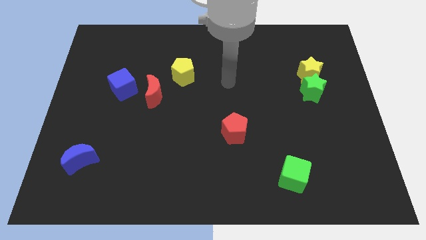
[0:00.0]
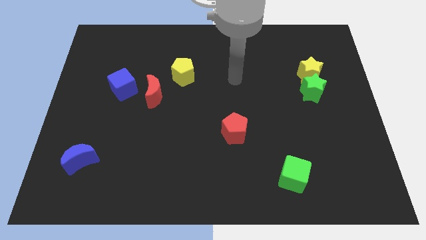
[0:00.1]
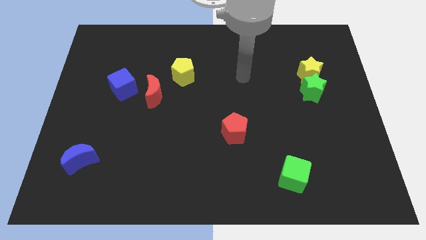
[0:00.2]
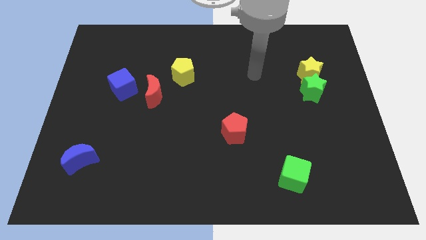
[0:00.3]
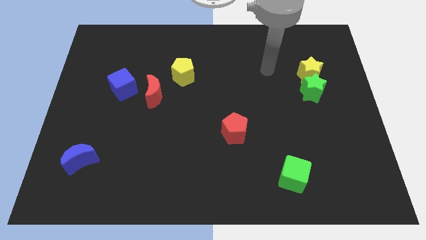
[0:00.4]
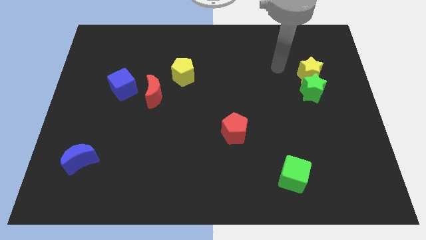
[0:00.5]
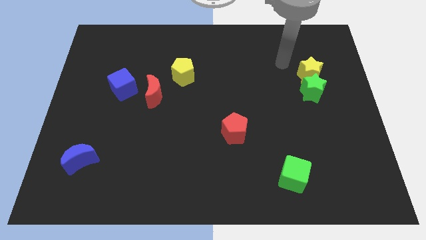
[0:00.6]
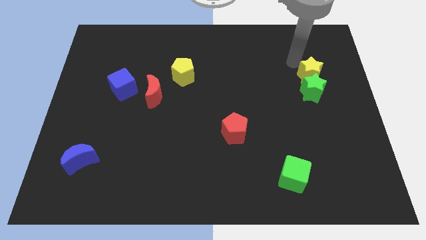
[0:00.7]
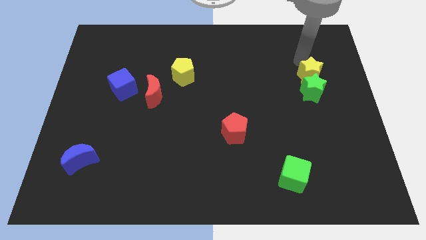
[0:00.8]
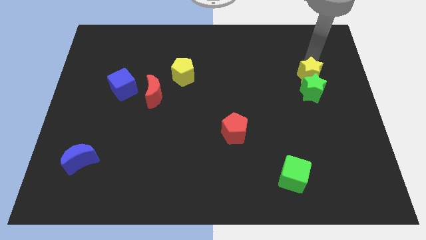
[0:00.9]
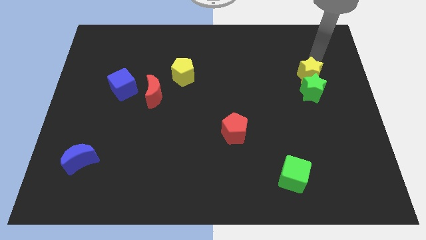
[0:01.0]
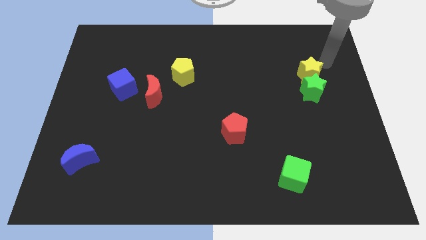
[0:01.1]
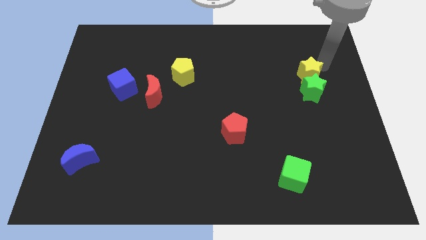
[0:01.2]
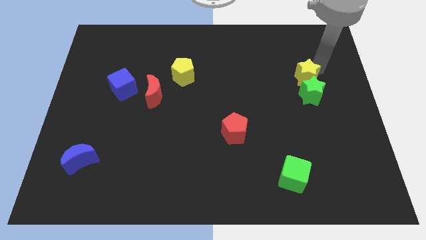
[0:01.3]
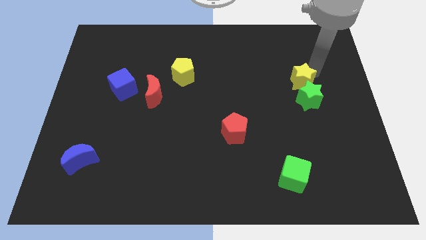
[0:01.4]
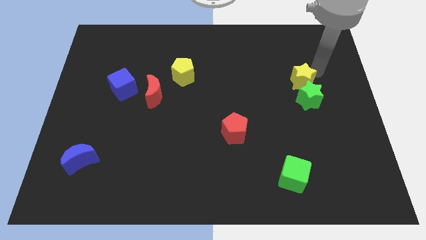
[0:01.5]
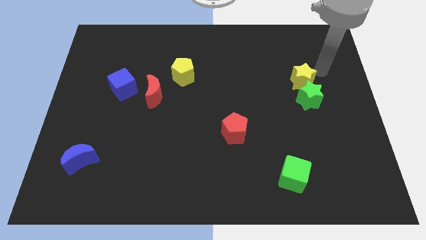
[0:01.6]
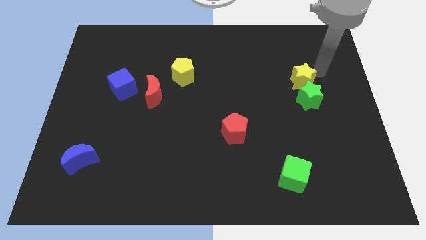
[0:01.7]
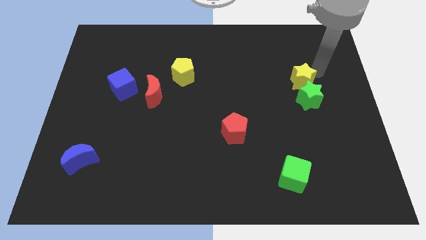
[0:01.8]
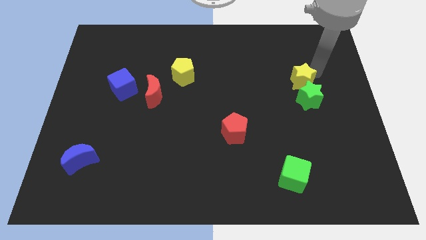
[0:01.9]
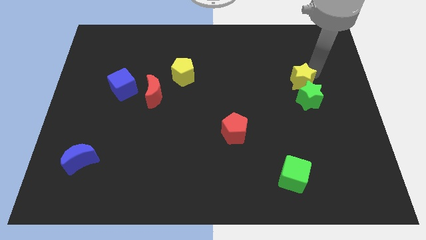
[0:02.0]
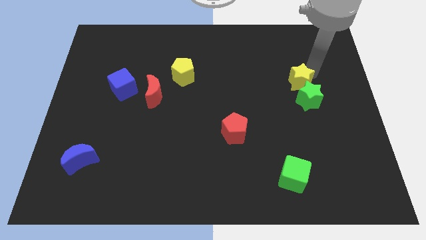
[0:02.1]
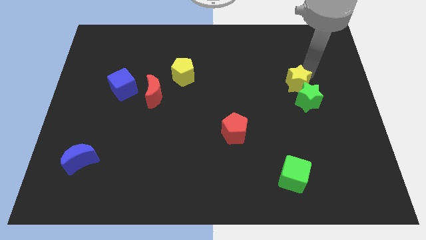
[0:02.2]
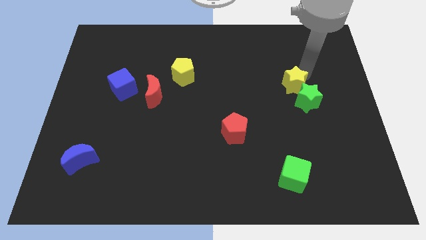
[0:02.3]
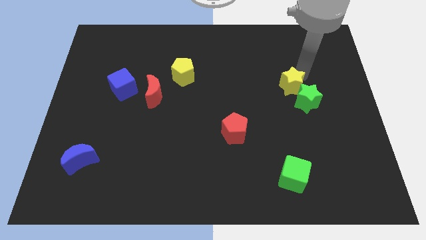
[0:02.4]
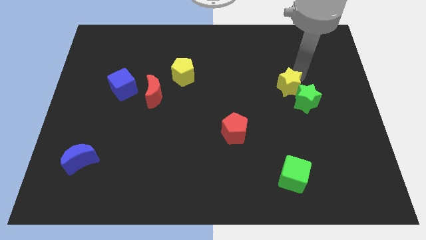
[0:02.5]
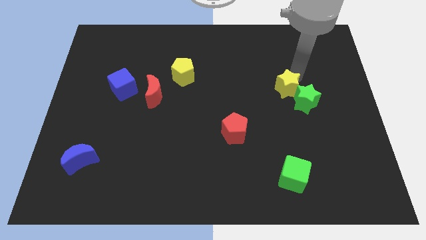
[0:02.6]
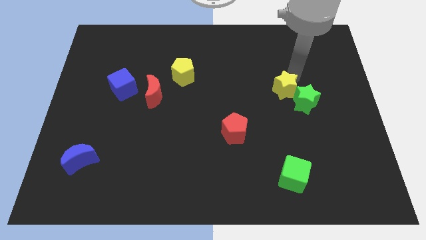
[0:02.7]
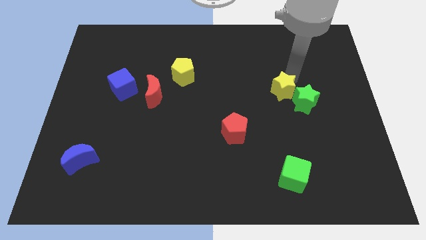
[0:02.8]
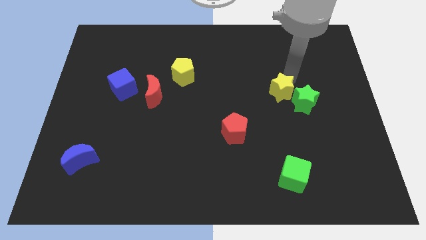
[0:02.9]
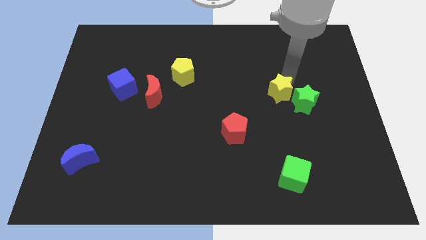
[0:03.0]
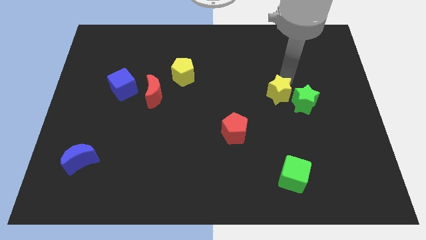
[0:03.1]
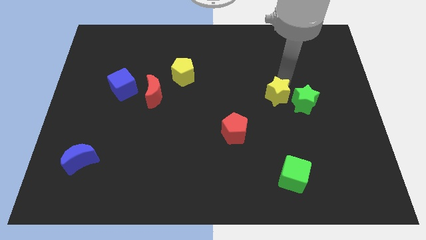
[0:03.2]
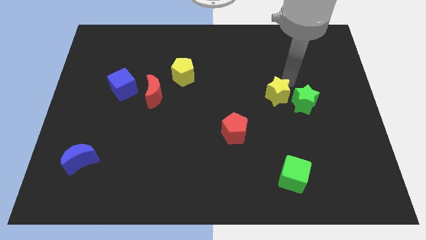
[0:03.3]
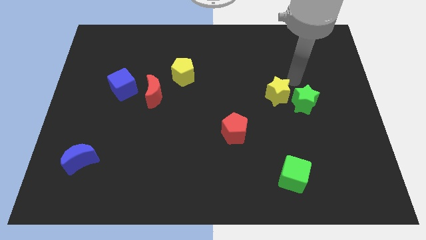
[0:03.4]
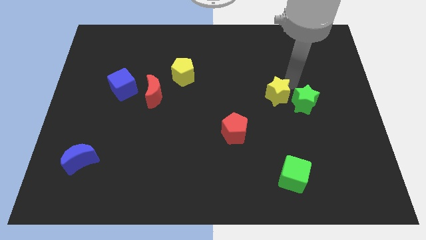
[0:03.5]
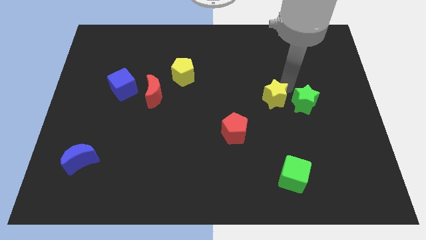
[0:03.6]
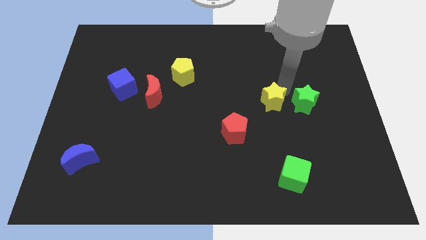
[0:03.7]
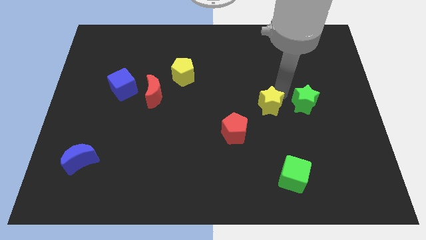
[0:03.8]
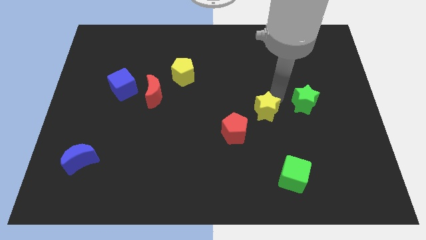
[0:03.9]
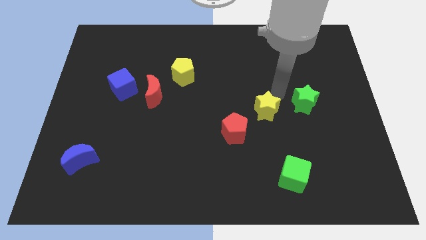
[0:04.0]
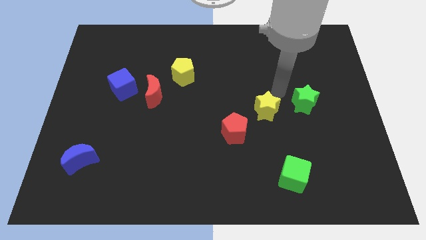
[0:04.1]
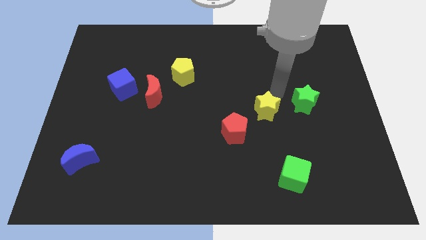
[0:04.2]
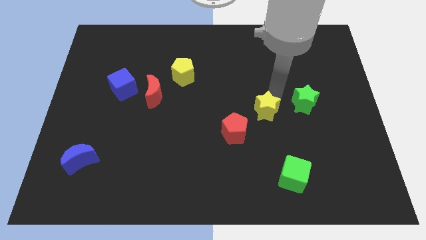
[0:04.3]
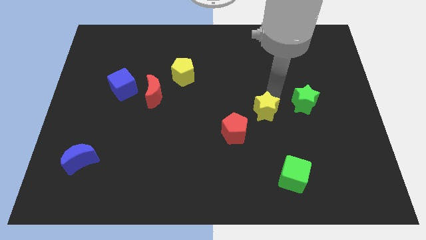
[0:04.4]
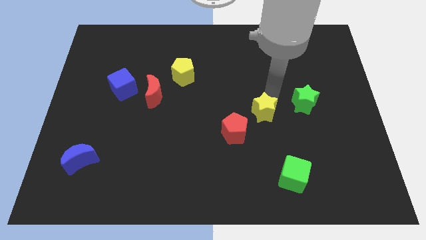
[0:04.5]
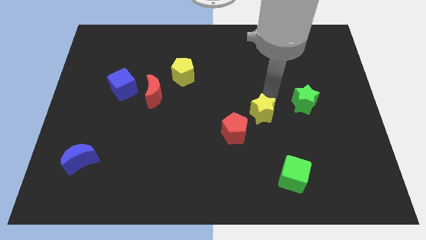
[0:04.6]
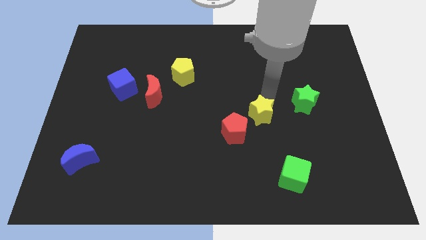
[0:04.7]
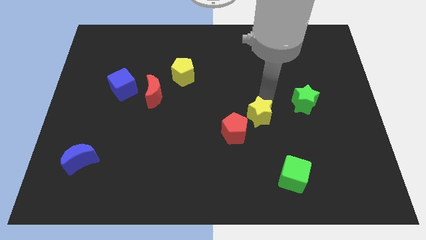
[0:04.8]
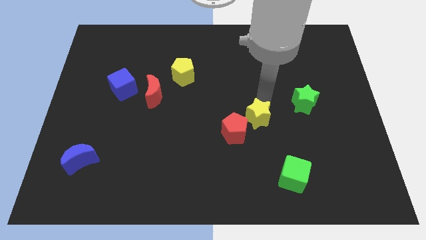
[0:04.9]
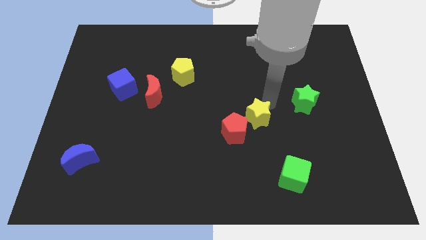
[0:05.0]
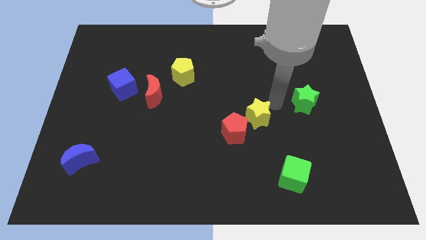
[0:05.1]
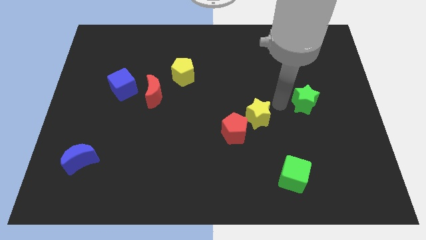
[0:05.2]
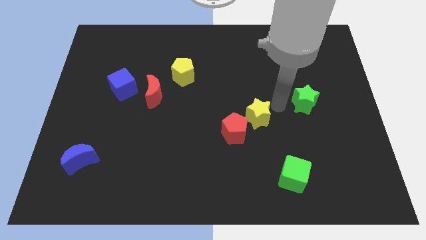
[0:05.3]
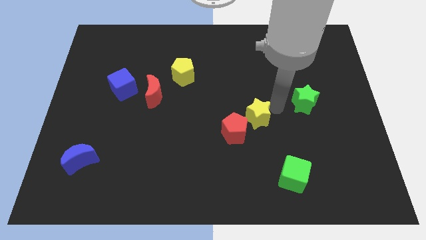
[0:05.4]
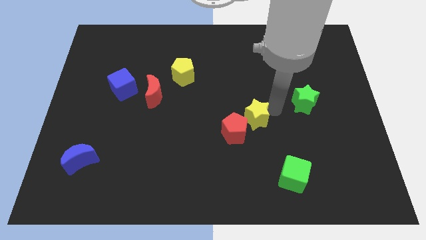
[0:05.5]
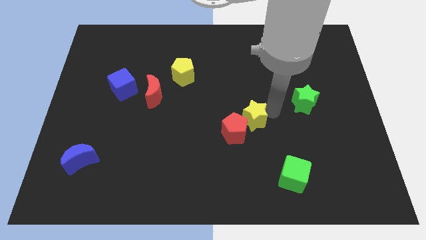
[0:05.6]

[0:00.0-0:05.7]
slide the yellow star to the red pentagon

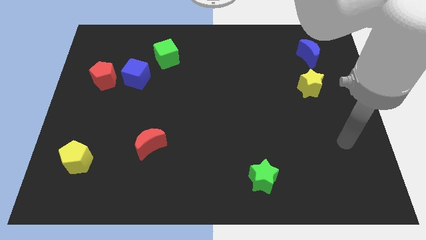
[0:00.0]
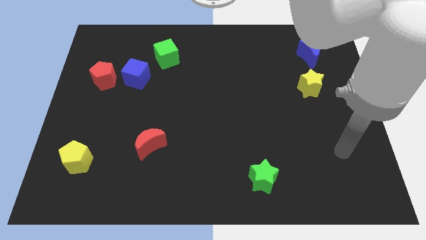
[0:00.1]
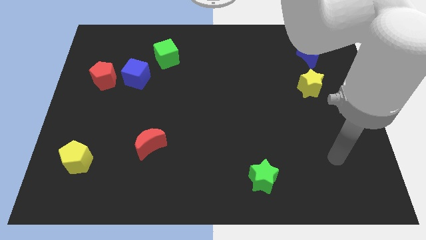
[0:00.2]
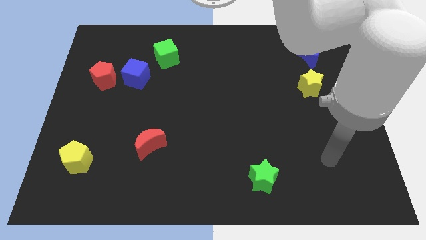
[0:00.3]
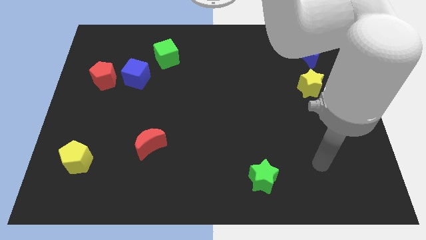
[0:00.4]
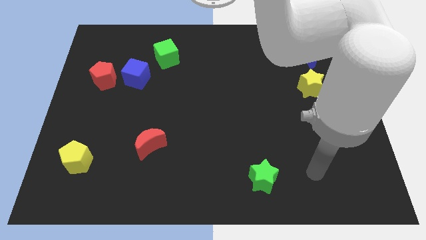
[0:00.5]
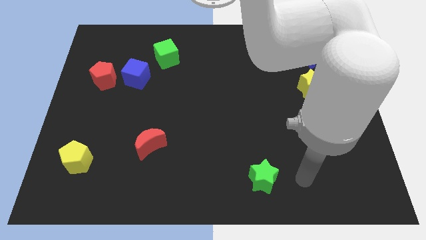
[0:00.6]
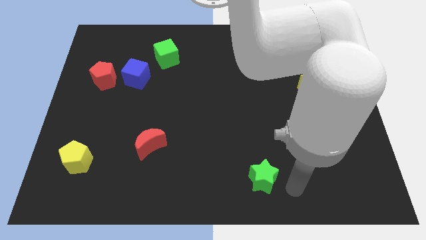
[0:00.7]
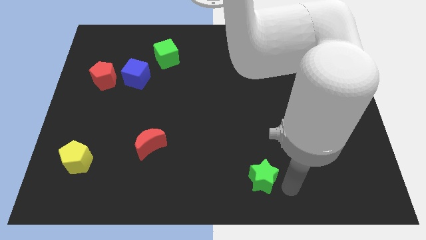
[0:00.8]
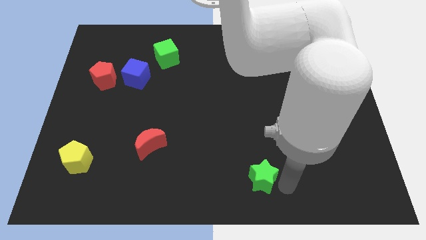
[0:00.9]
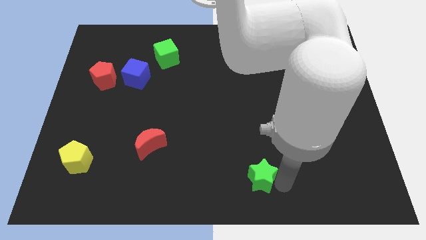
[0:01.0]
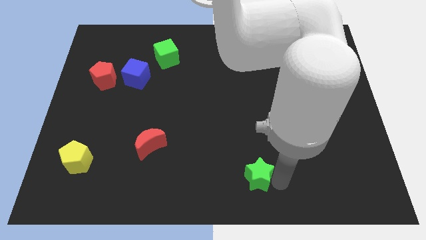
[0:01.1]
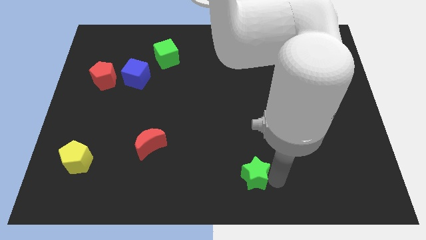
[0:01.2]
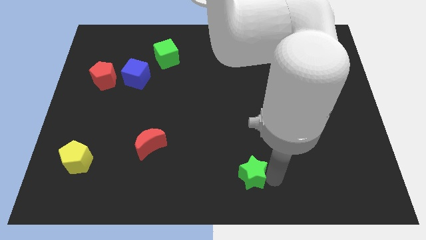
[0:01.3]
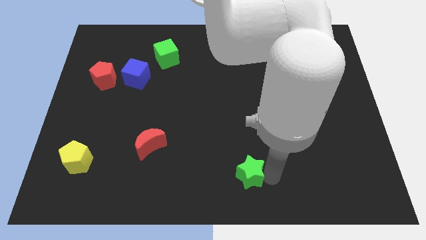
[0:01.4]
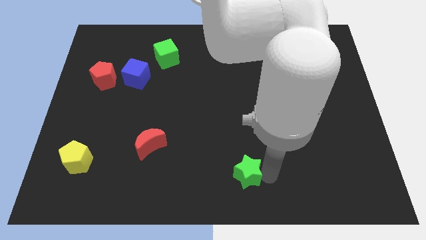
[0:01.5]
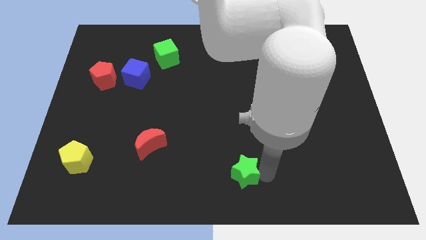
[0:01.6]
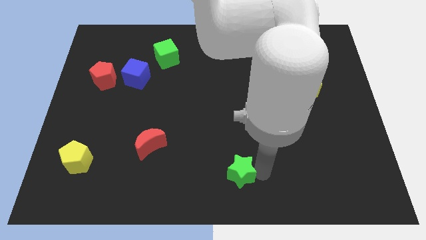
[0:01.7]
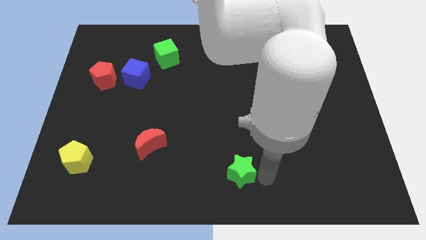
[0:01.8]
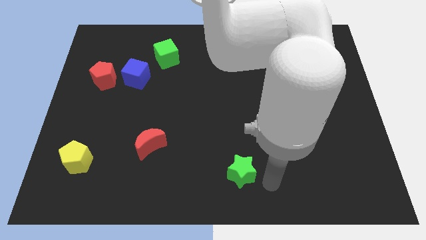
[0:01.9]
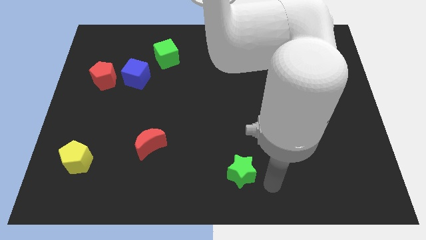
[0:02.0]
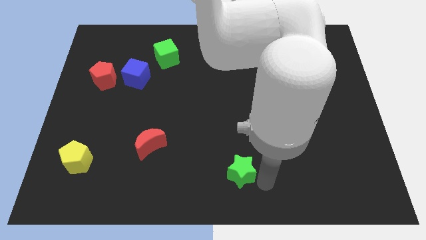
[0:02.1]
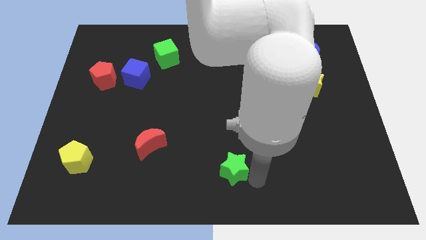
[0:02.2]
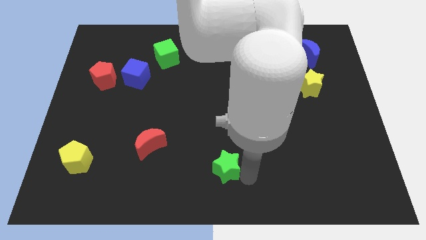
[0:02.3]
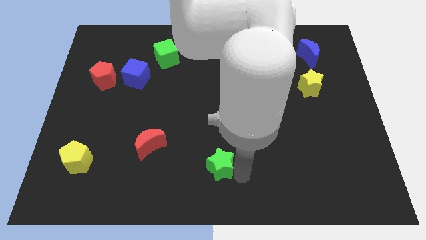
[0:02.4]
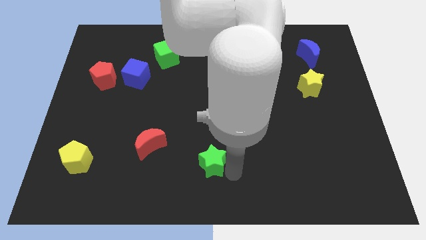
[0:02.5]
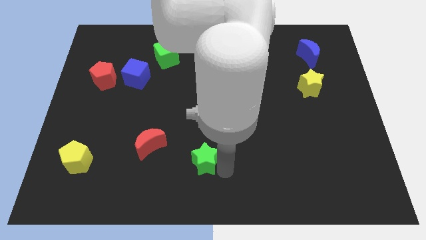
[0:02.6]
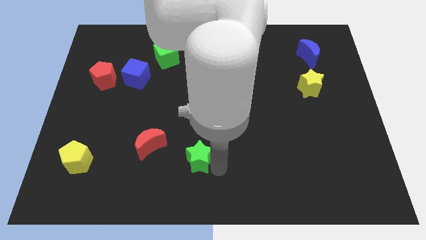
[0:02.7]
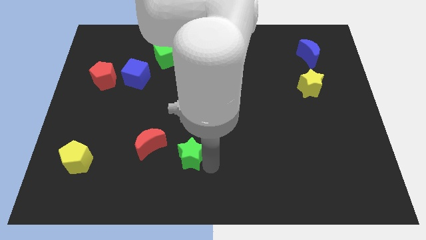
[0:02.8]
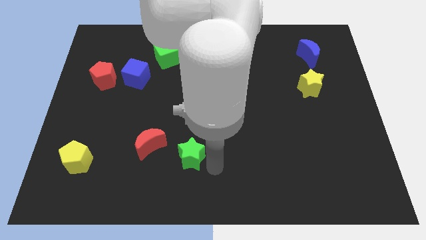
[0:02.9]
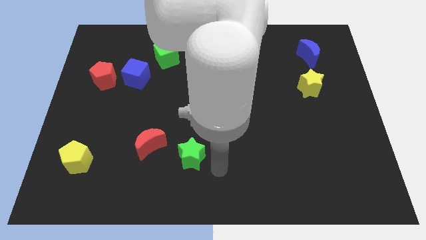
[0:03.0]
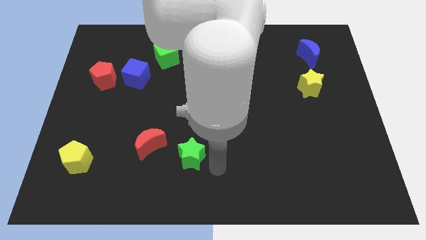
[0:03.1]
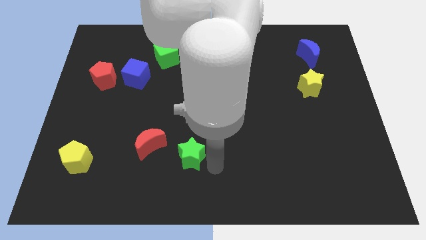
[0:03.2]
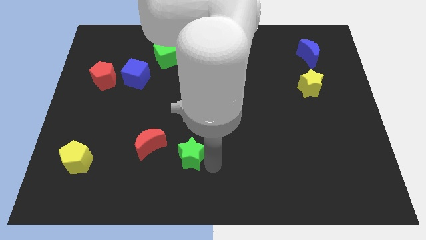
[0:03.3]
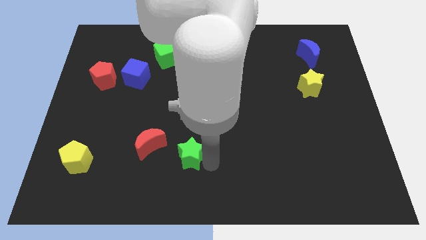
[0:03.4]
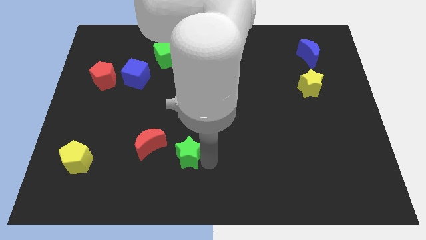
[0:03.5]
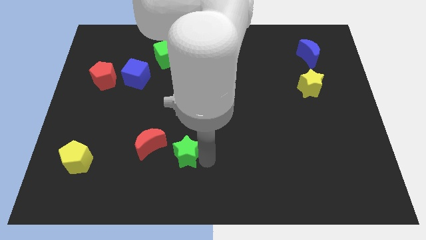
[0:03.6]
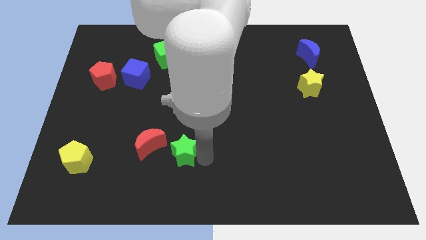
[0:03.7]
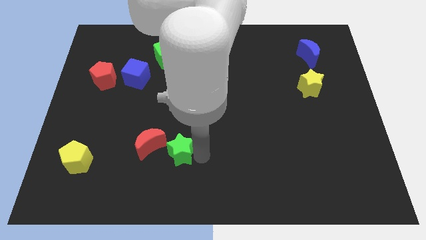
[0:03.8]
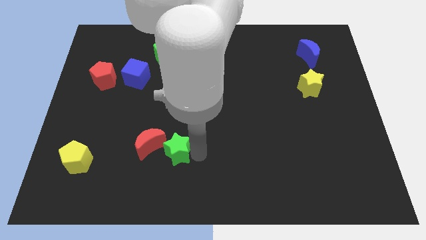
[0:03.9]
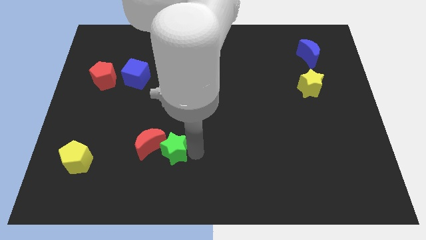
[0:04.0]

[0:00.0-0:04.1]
push the green star towards the red moon
